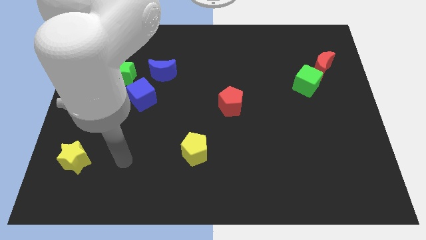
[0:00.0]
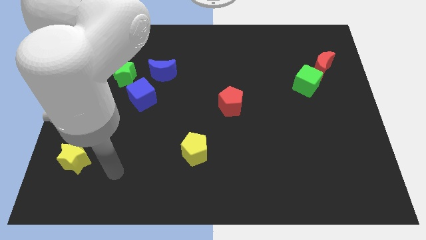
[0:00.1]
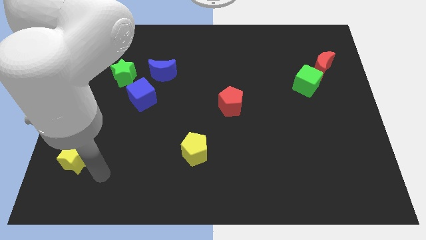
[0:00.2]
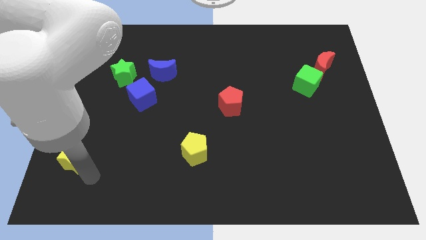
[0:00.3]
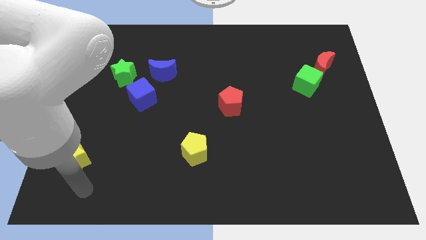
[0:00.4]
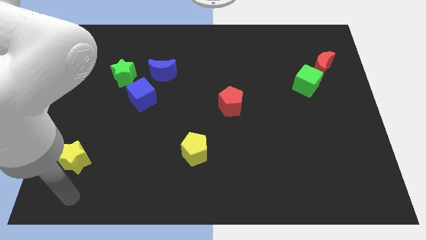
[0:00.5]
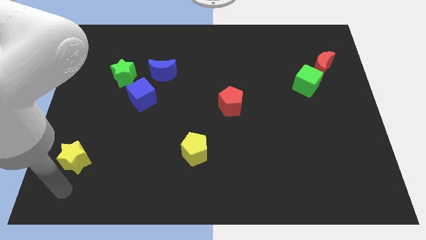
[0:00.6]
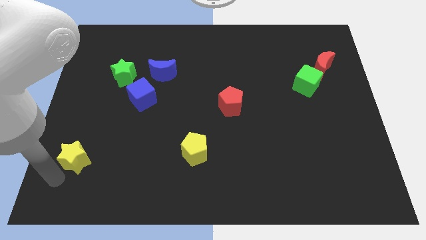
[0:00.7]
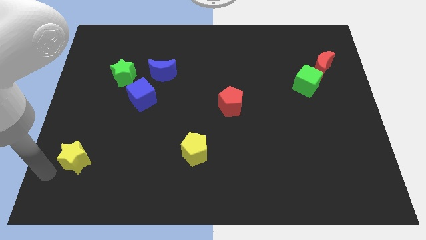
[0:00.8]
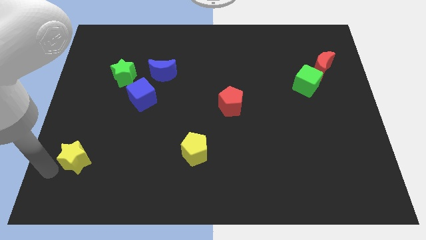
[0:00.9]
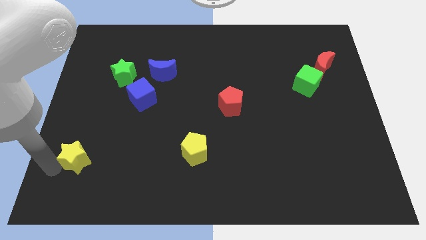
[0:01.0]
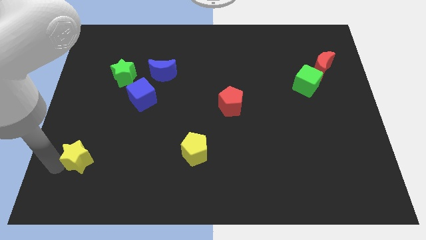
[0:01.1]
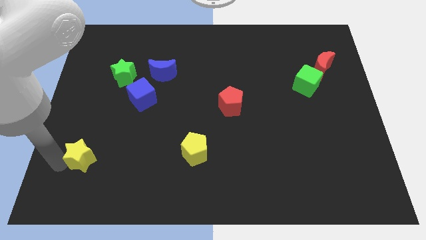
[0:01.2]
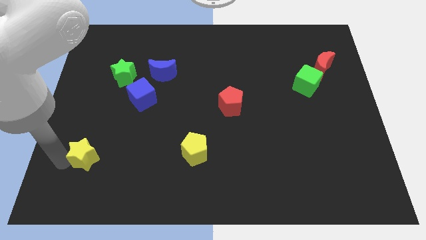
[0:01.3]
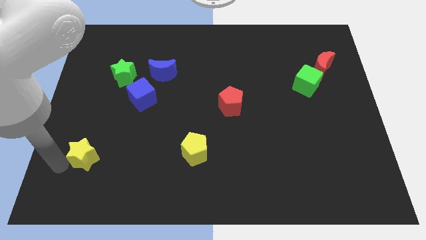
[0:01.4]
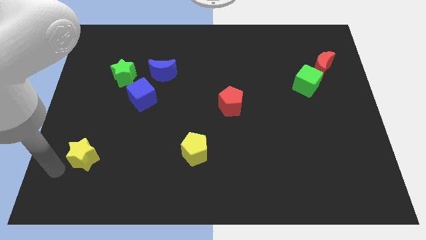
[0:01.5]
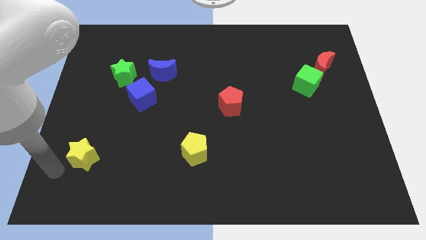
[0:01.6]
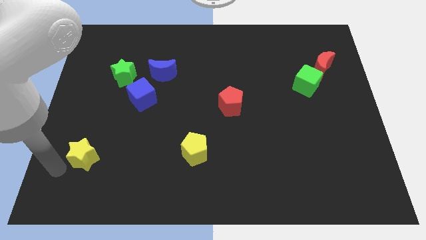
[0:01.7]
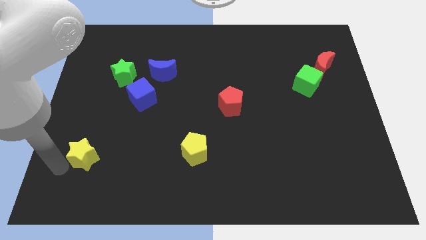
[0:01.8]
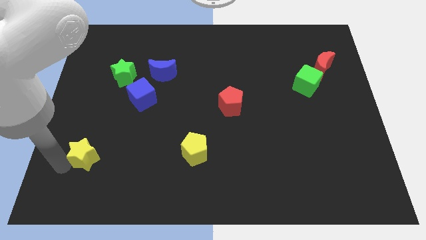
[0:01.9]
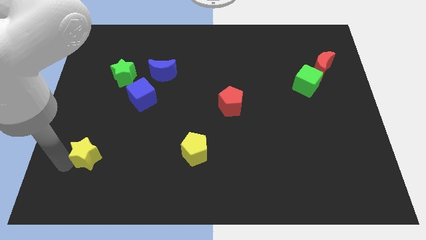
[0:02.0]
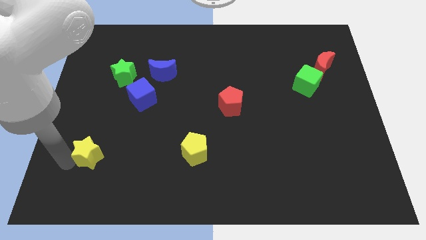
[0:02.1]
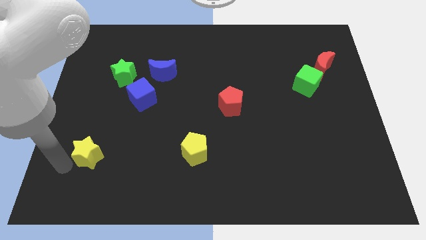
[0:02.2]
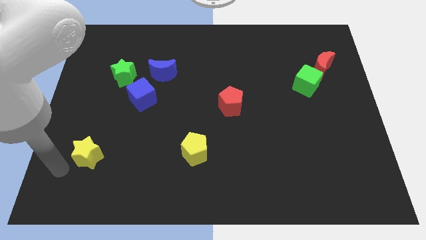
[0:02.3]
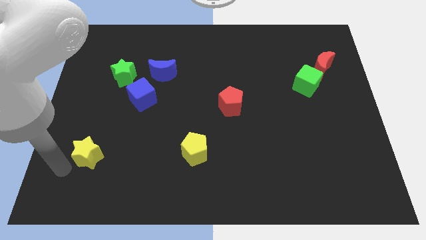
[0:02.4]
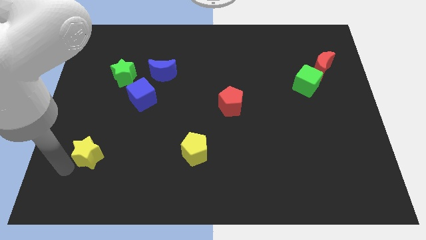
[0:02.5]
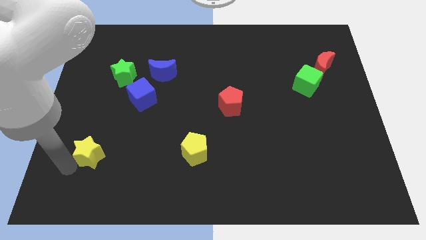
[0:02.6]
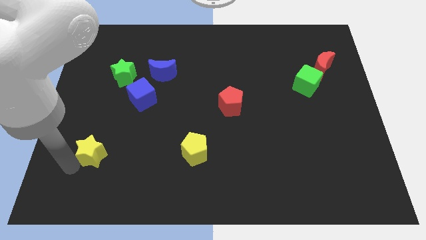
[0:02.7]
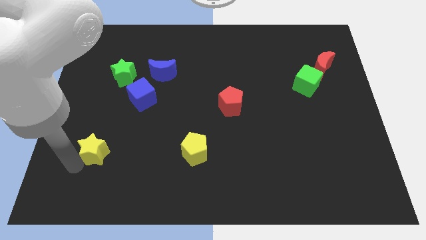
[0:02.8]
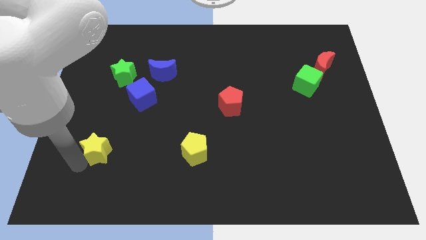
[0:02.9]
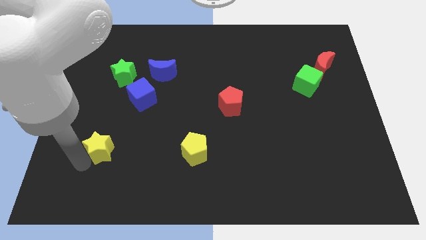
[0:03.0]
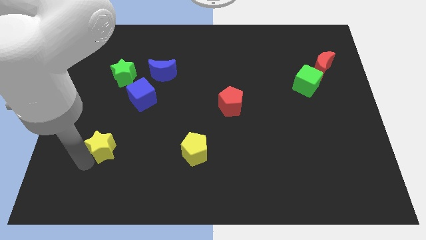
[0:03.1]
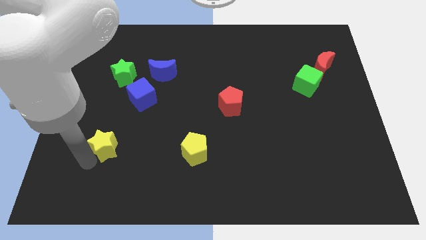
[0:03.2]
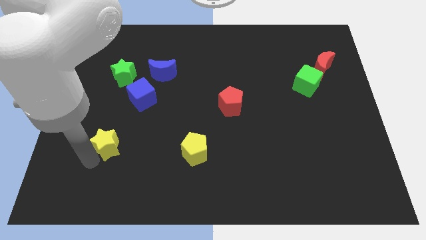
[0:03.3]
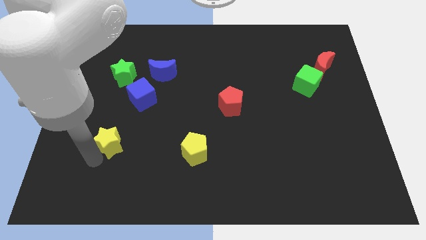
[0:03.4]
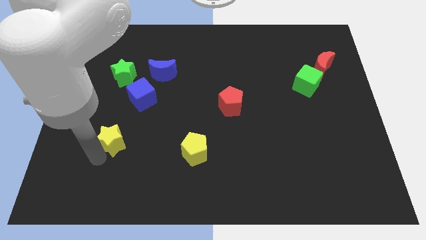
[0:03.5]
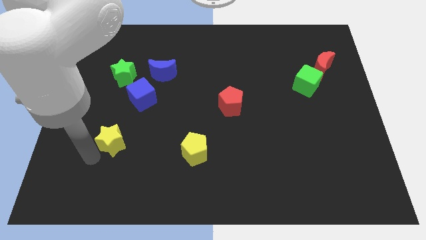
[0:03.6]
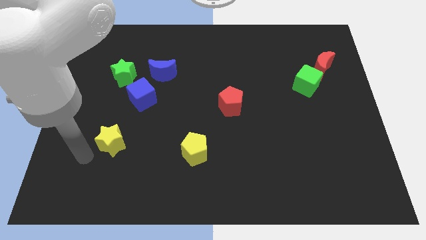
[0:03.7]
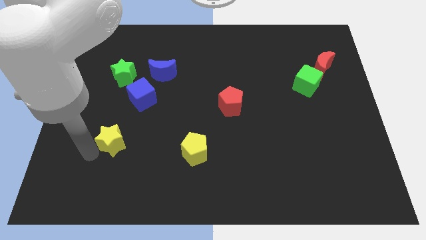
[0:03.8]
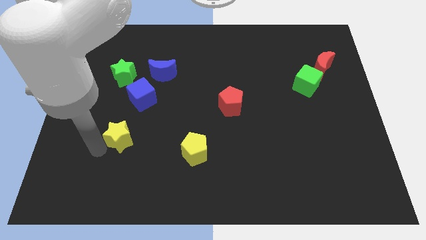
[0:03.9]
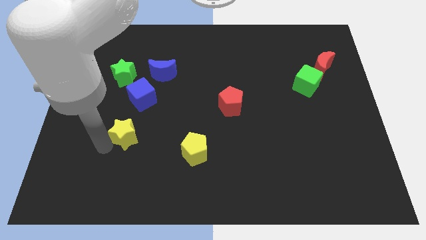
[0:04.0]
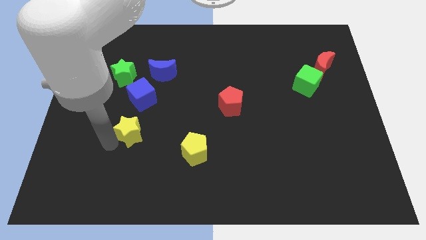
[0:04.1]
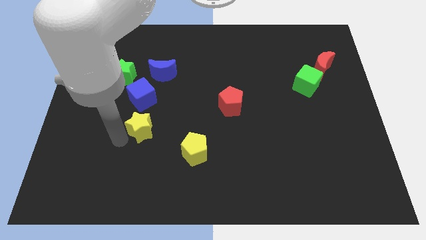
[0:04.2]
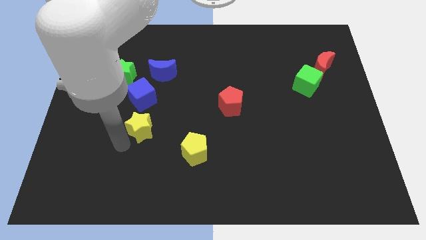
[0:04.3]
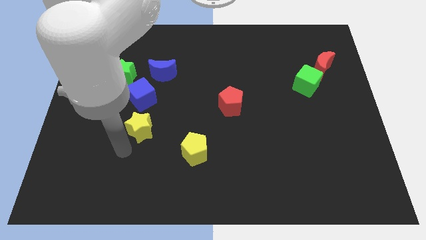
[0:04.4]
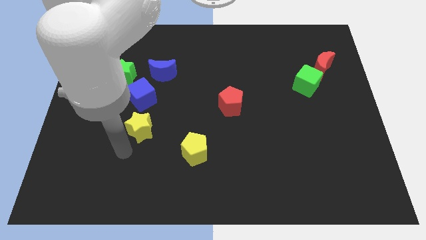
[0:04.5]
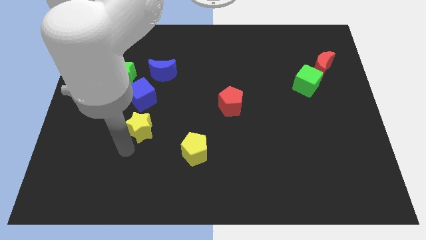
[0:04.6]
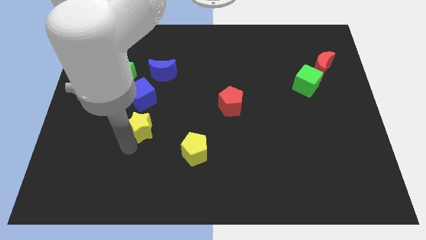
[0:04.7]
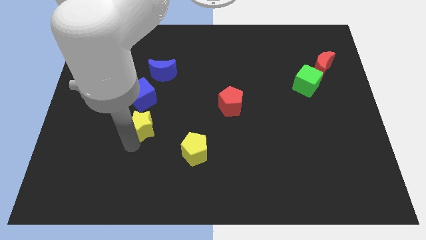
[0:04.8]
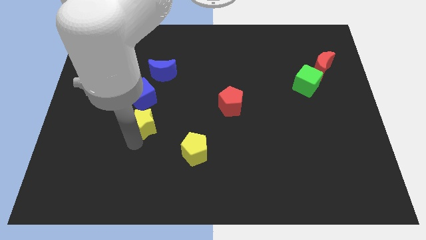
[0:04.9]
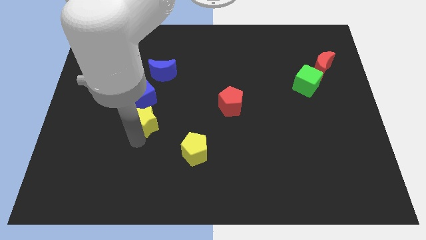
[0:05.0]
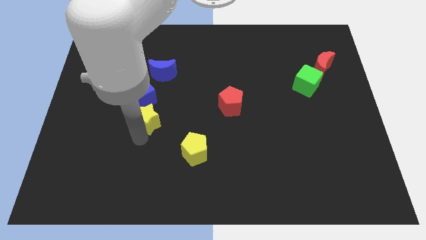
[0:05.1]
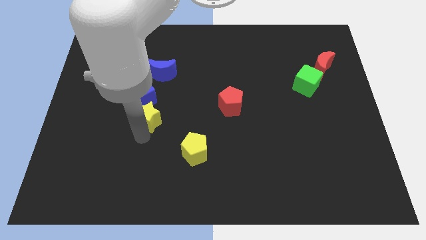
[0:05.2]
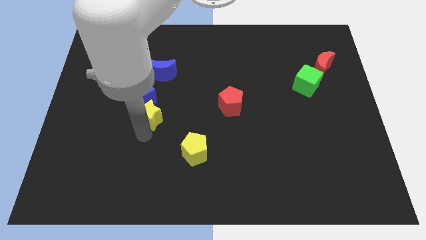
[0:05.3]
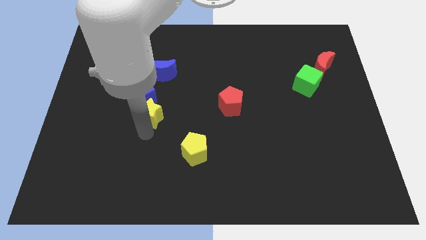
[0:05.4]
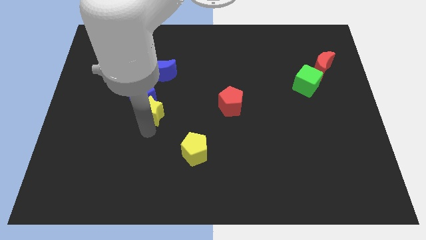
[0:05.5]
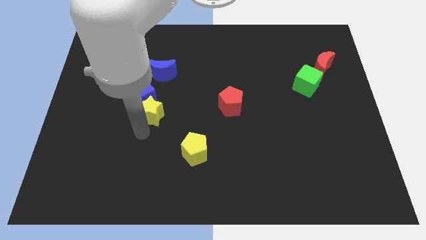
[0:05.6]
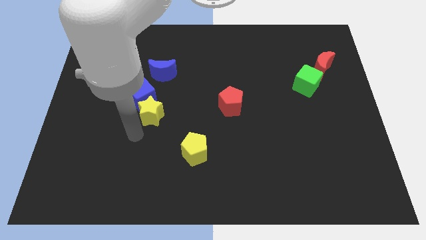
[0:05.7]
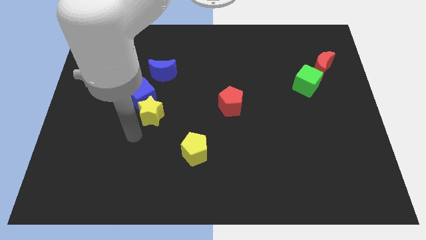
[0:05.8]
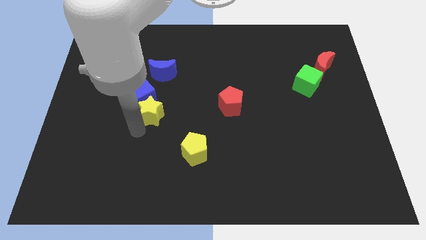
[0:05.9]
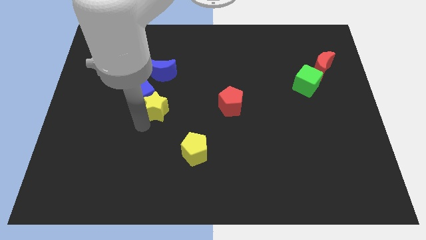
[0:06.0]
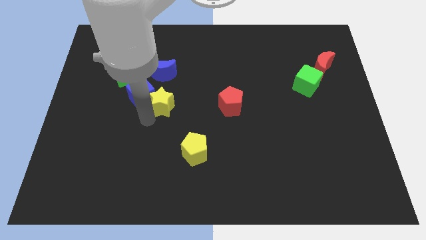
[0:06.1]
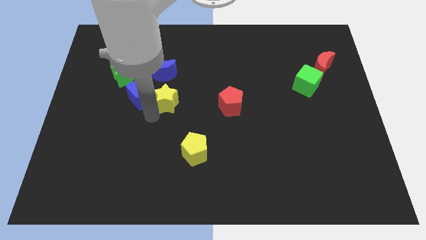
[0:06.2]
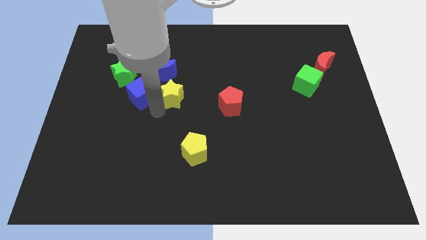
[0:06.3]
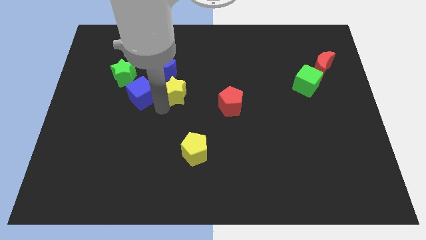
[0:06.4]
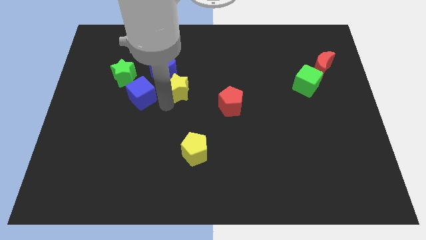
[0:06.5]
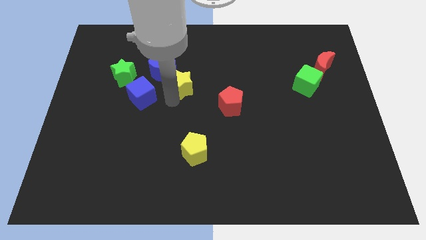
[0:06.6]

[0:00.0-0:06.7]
move the yellow star right of the green star
